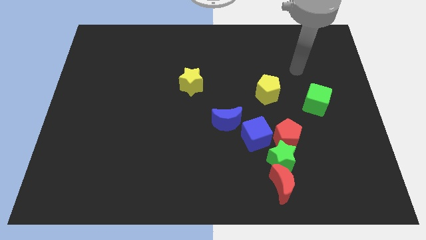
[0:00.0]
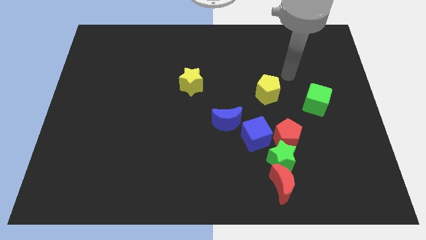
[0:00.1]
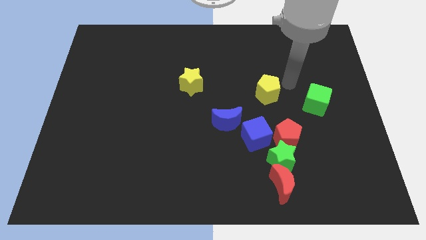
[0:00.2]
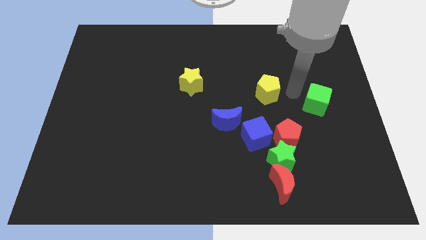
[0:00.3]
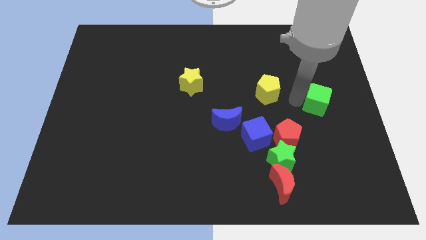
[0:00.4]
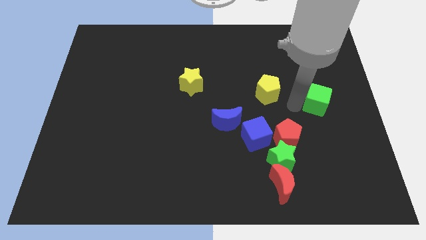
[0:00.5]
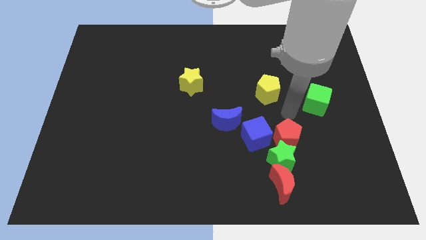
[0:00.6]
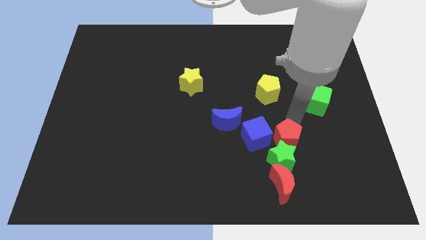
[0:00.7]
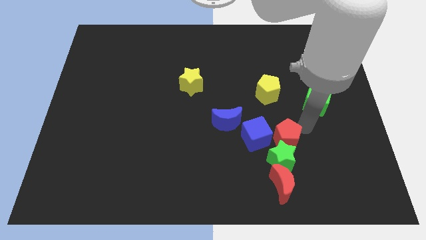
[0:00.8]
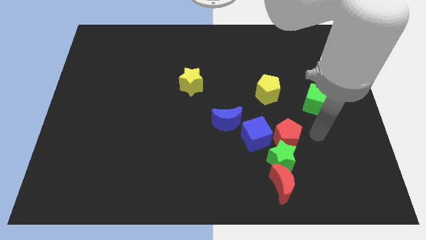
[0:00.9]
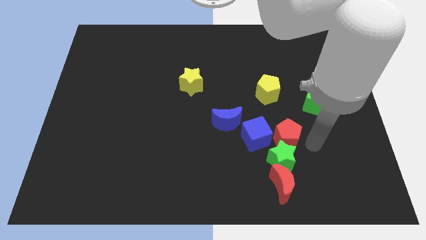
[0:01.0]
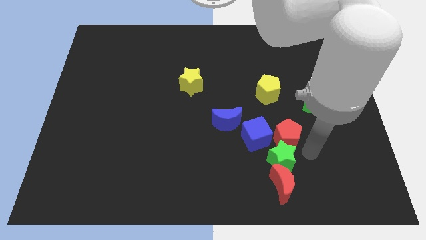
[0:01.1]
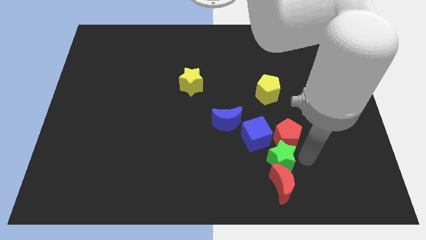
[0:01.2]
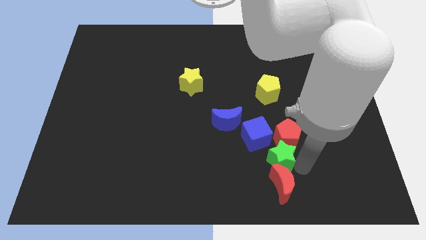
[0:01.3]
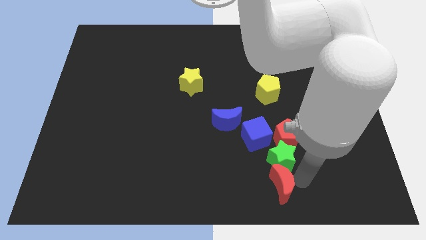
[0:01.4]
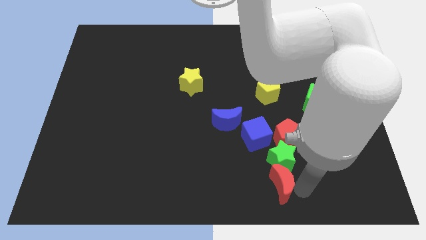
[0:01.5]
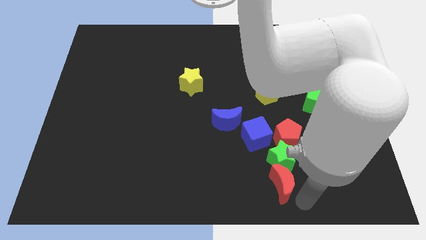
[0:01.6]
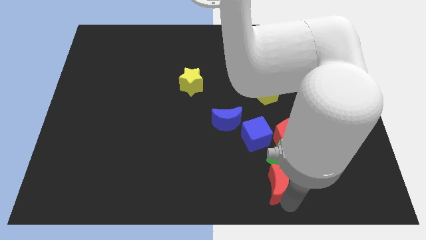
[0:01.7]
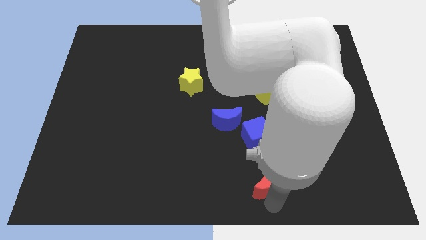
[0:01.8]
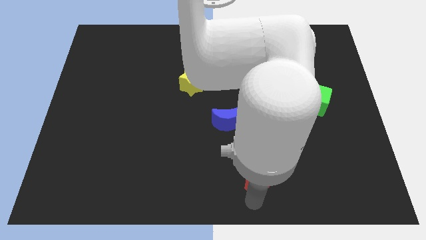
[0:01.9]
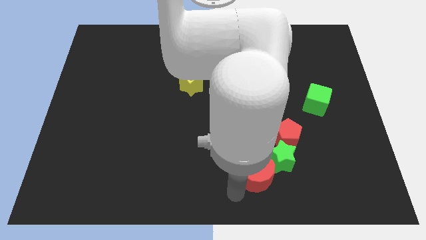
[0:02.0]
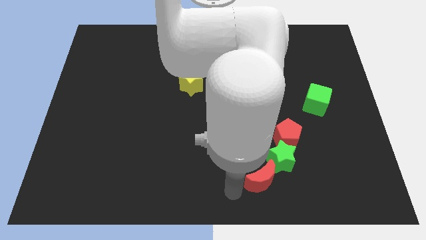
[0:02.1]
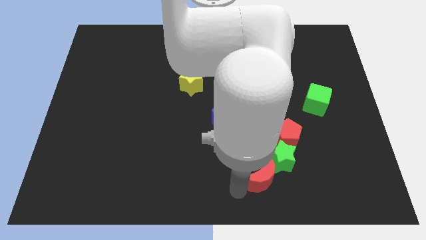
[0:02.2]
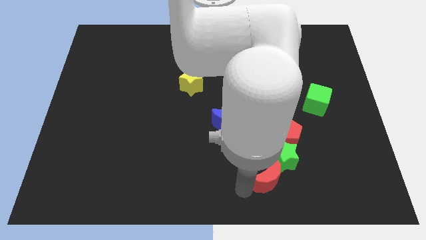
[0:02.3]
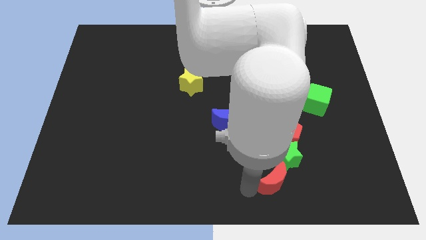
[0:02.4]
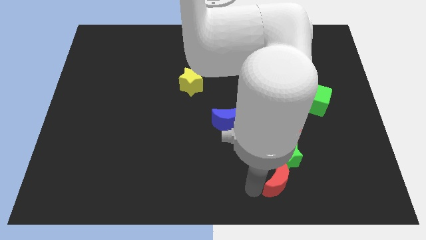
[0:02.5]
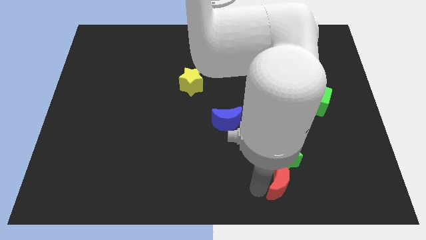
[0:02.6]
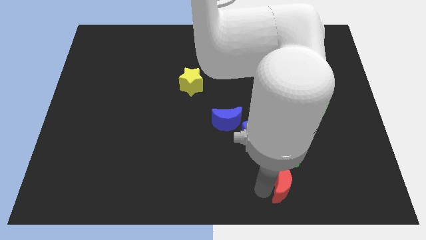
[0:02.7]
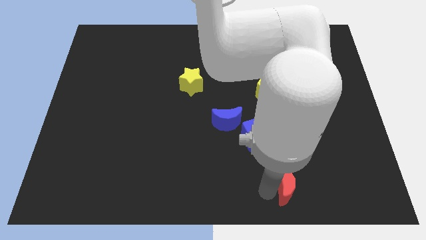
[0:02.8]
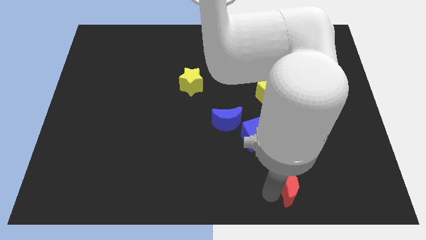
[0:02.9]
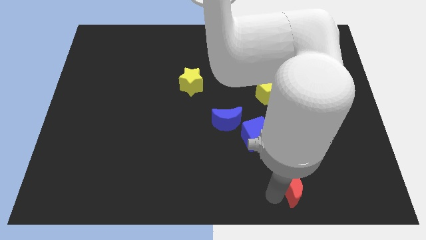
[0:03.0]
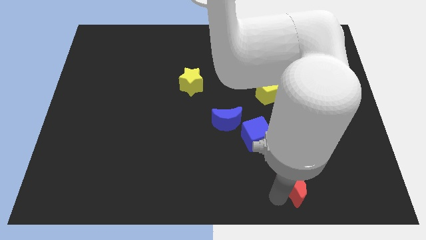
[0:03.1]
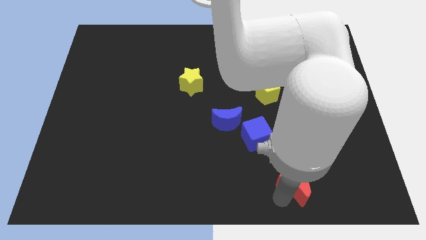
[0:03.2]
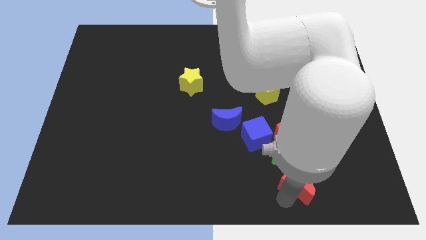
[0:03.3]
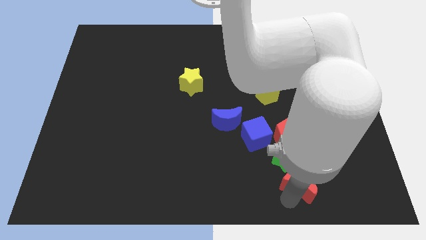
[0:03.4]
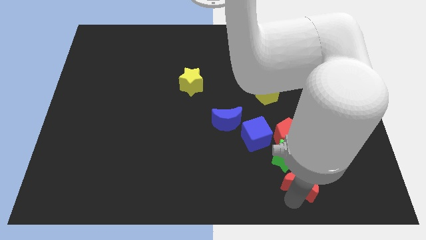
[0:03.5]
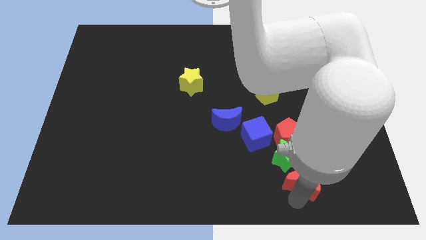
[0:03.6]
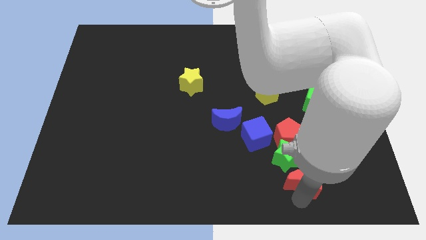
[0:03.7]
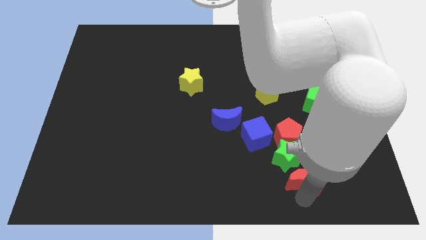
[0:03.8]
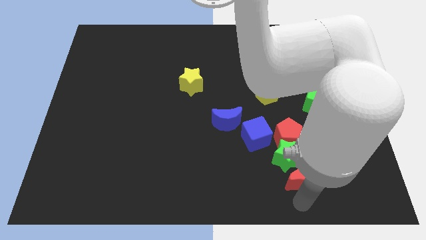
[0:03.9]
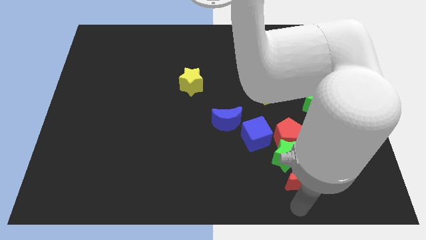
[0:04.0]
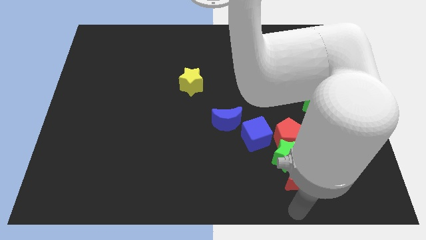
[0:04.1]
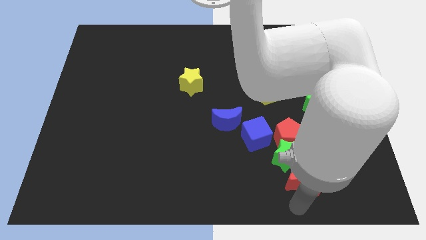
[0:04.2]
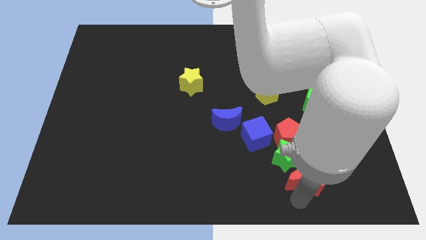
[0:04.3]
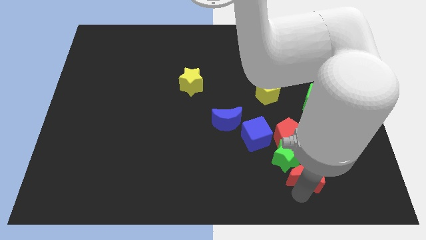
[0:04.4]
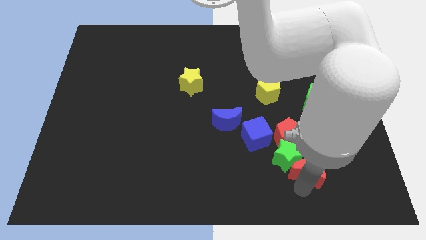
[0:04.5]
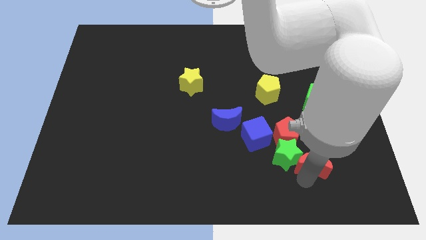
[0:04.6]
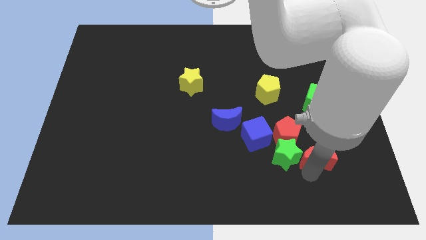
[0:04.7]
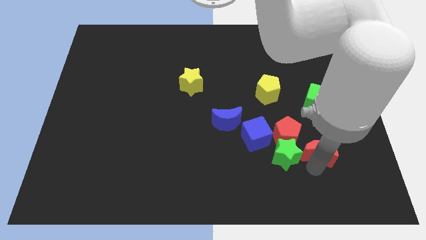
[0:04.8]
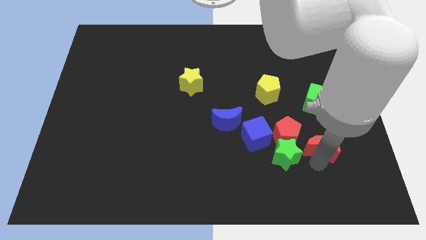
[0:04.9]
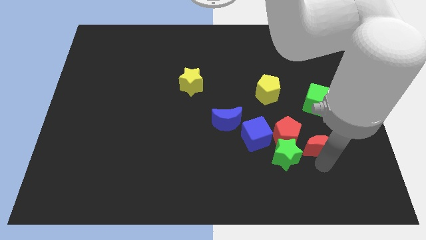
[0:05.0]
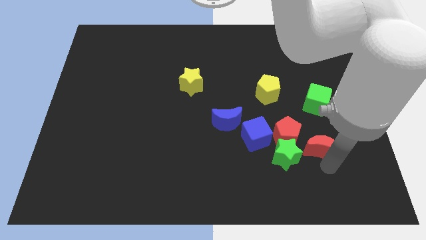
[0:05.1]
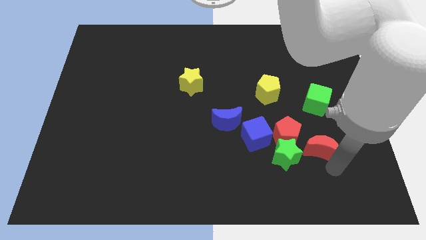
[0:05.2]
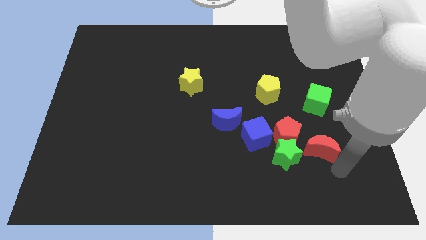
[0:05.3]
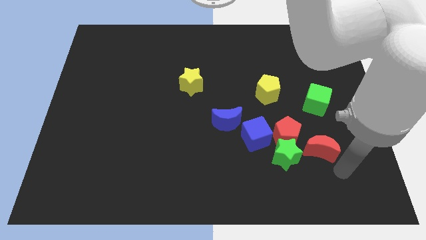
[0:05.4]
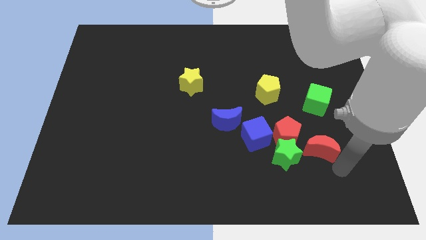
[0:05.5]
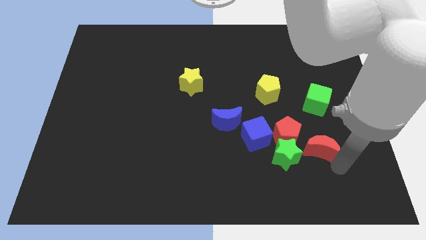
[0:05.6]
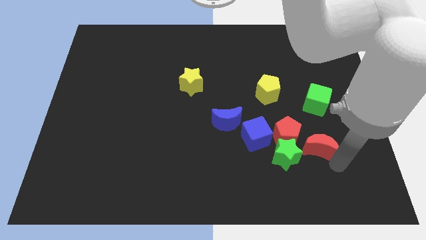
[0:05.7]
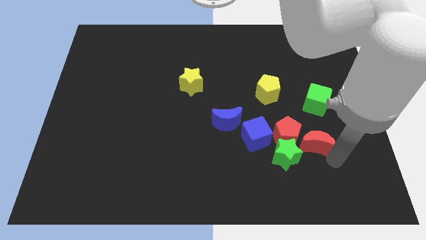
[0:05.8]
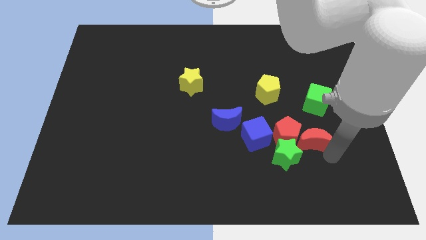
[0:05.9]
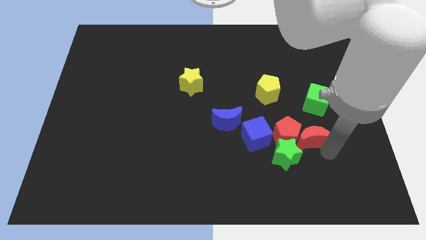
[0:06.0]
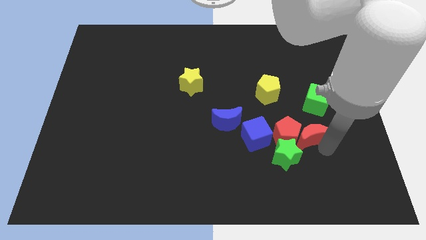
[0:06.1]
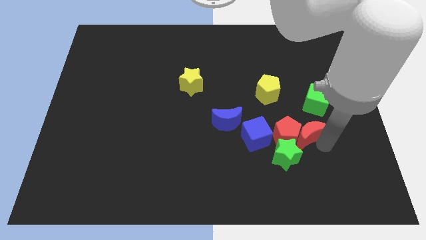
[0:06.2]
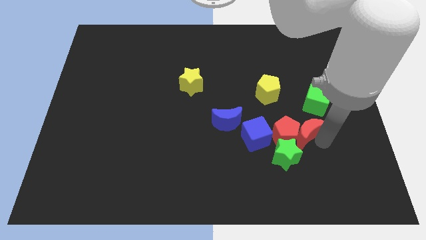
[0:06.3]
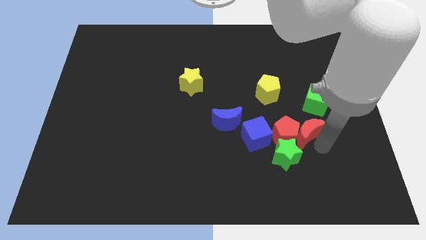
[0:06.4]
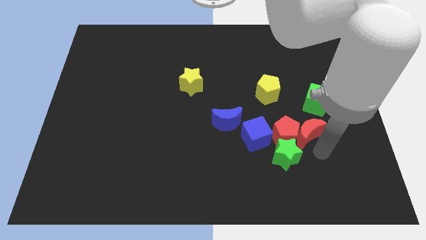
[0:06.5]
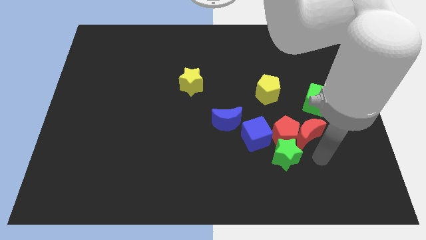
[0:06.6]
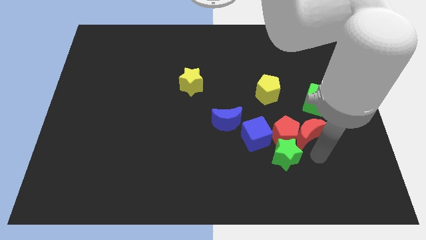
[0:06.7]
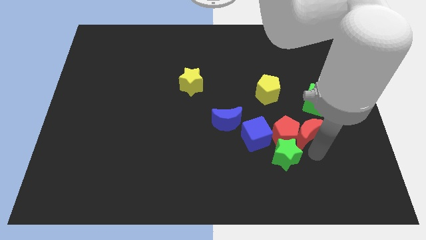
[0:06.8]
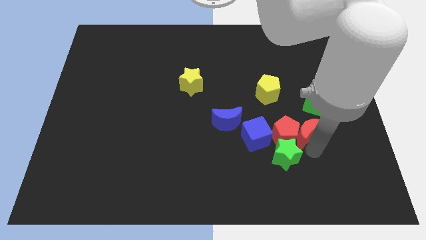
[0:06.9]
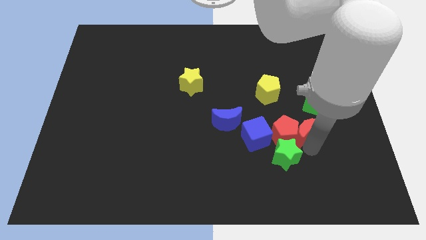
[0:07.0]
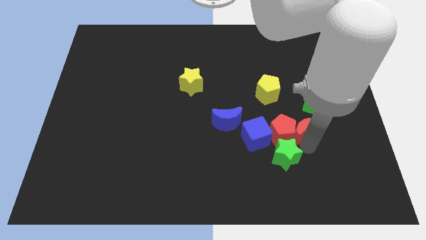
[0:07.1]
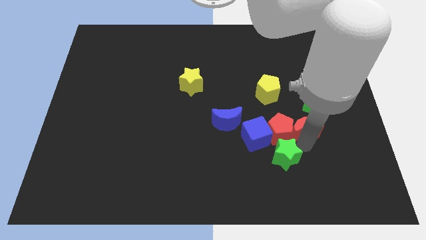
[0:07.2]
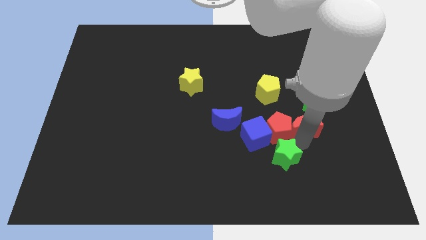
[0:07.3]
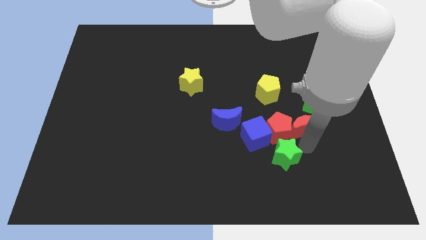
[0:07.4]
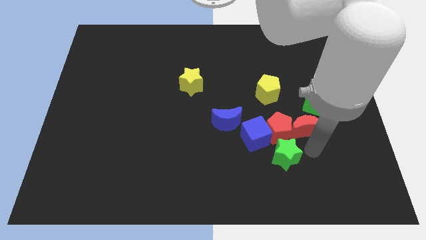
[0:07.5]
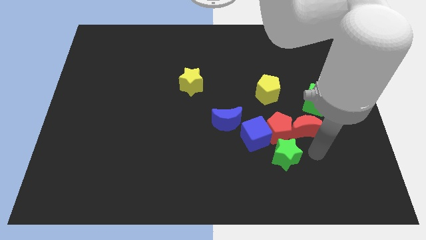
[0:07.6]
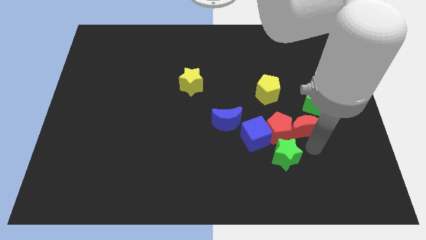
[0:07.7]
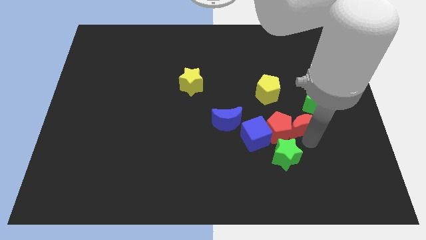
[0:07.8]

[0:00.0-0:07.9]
slide the red moon to the bottom right side of the yellow pentagon
